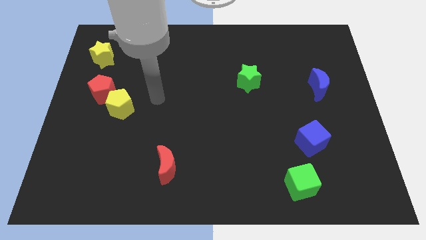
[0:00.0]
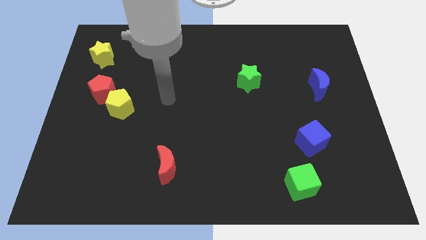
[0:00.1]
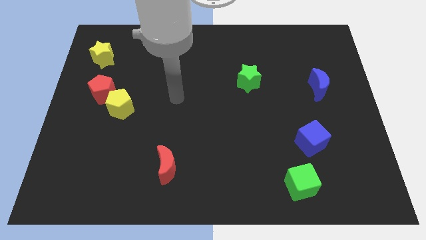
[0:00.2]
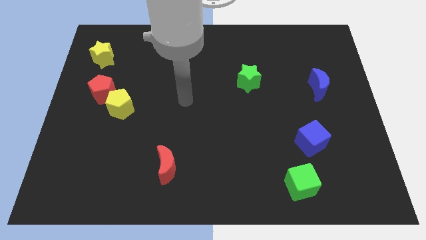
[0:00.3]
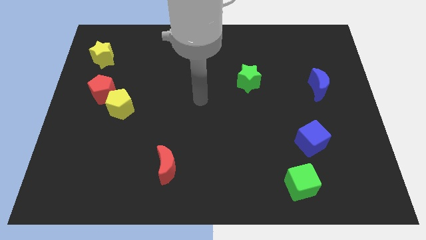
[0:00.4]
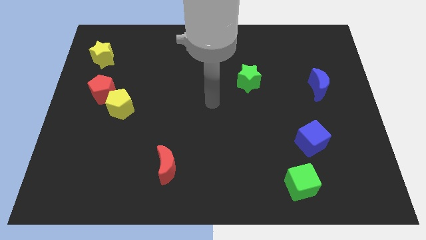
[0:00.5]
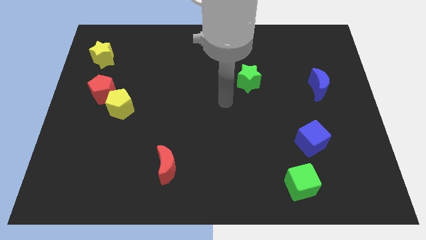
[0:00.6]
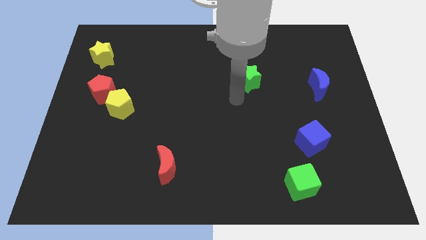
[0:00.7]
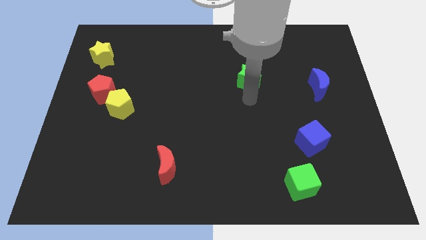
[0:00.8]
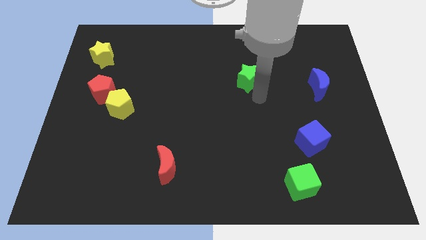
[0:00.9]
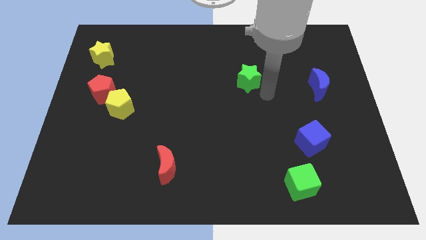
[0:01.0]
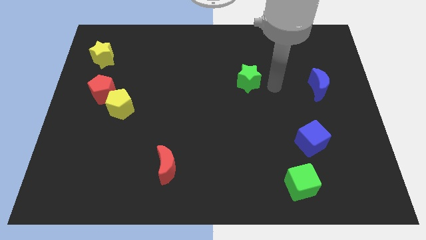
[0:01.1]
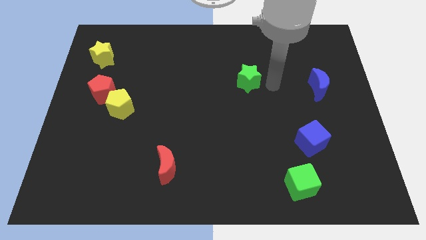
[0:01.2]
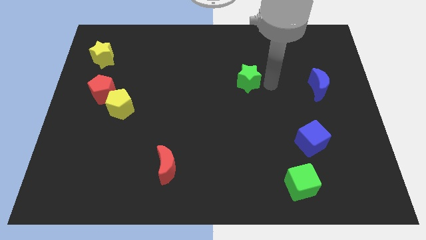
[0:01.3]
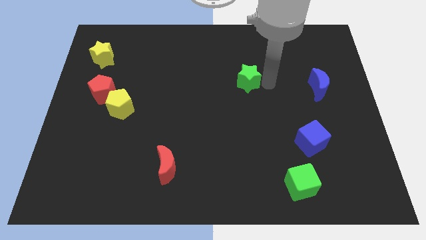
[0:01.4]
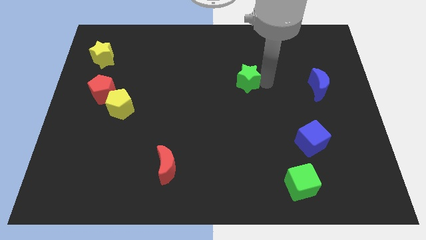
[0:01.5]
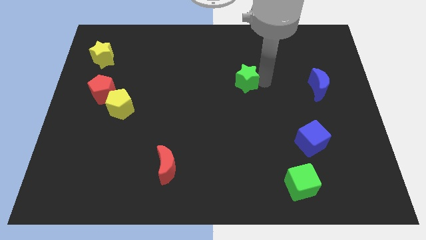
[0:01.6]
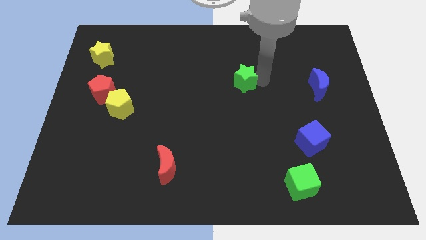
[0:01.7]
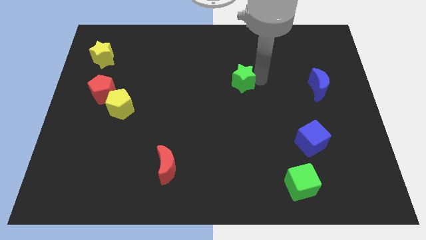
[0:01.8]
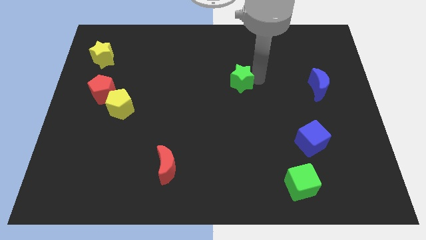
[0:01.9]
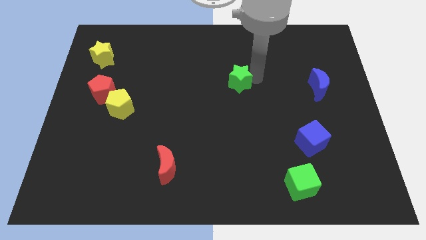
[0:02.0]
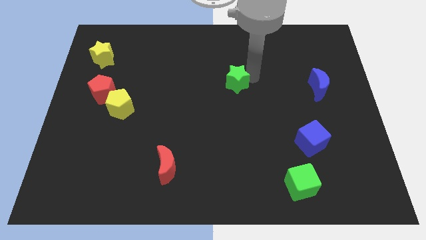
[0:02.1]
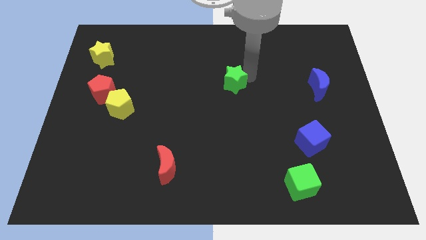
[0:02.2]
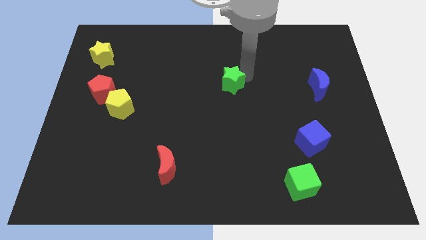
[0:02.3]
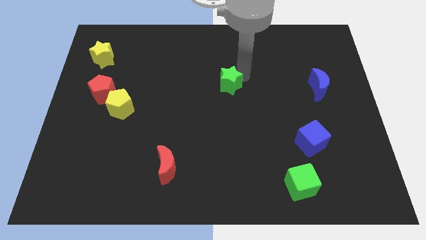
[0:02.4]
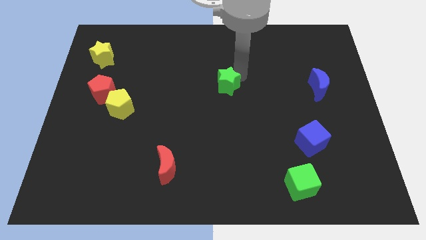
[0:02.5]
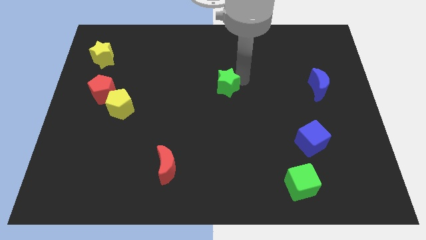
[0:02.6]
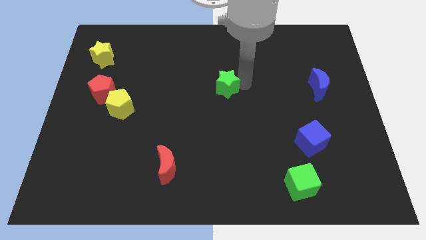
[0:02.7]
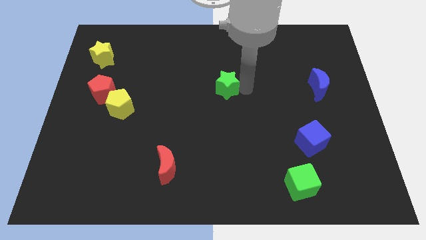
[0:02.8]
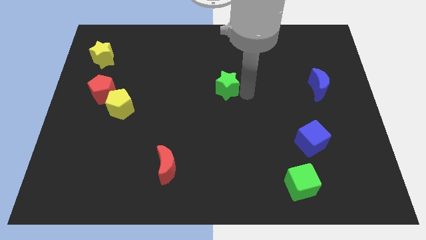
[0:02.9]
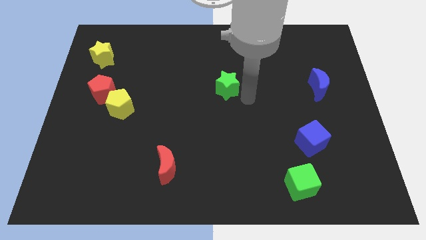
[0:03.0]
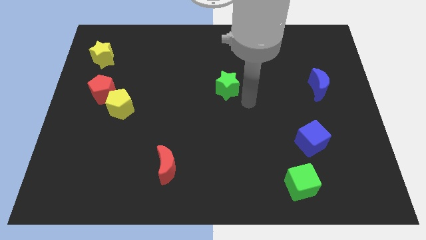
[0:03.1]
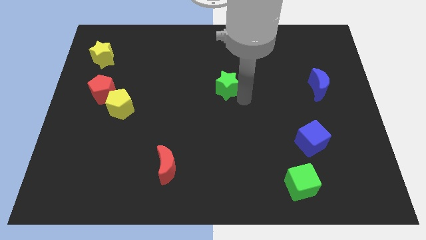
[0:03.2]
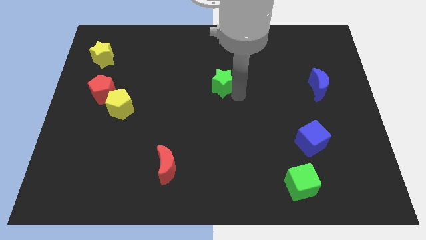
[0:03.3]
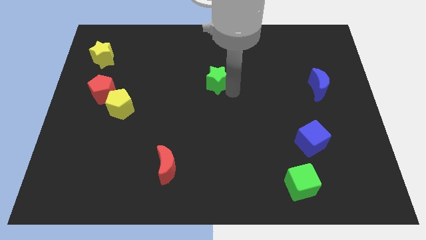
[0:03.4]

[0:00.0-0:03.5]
slightly move the green star left

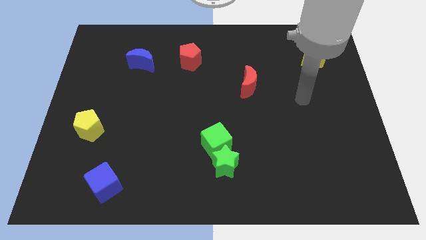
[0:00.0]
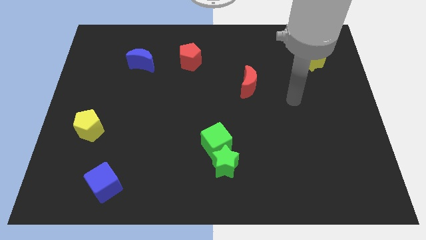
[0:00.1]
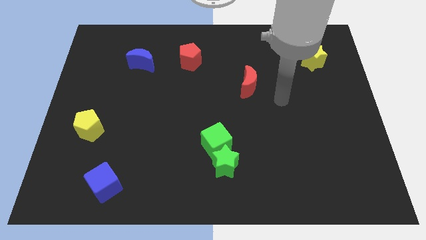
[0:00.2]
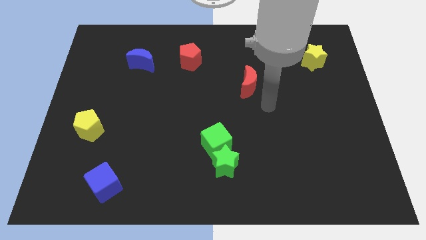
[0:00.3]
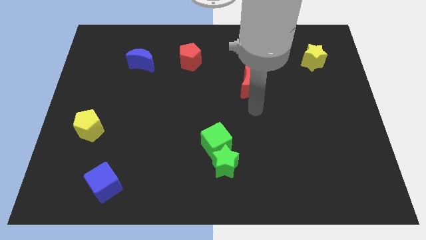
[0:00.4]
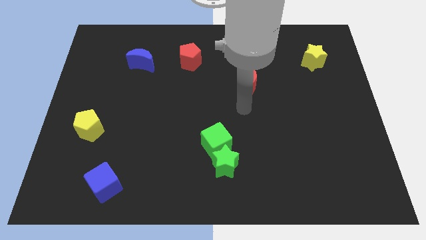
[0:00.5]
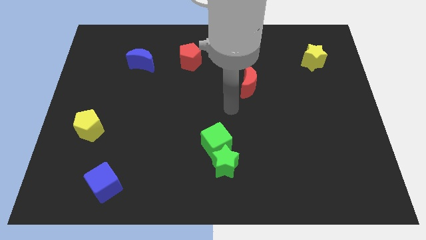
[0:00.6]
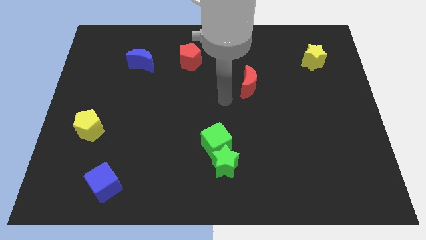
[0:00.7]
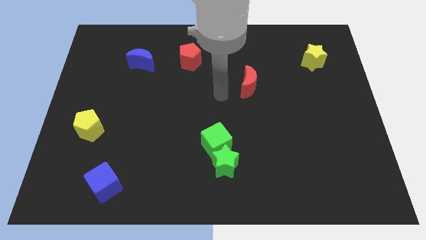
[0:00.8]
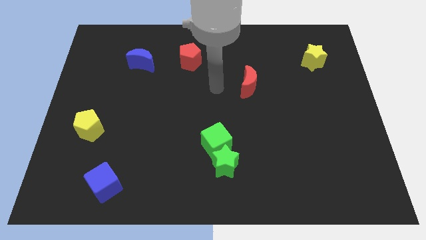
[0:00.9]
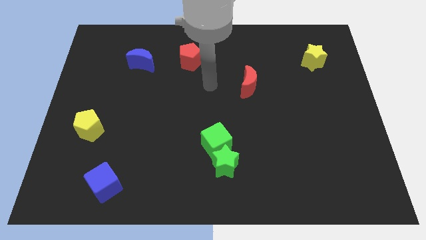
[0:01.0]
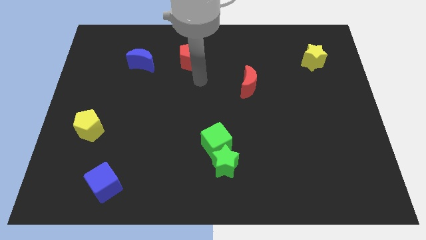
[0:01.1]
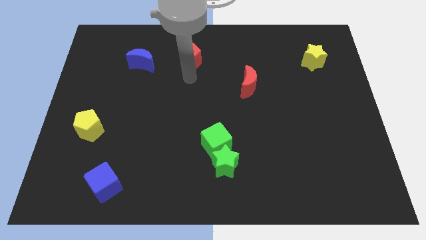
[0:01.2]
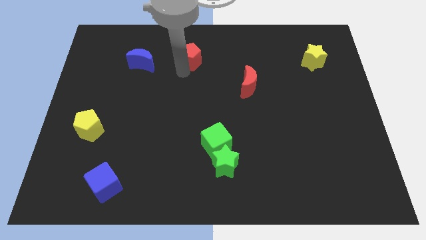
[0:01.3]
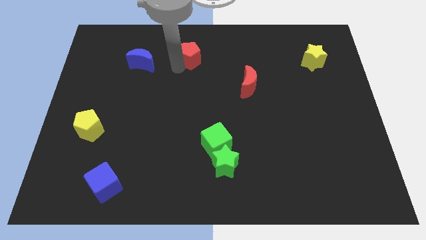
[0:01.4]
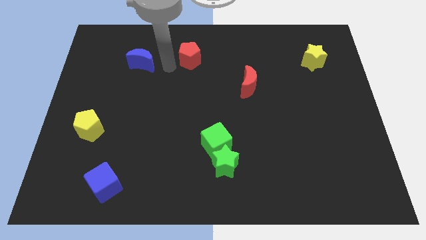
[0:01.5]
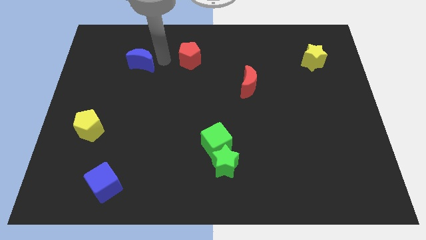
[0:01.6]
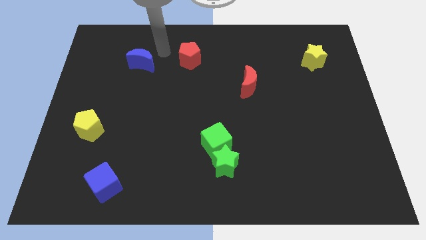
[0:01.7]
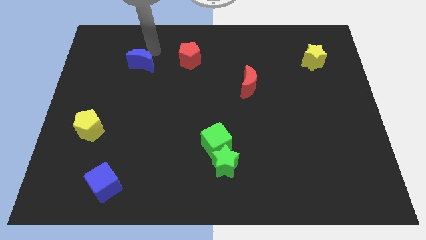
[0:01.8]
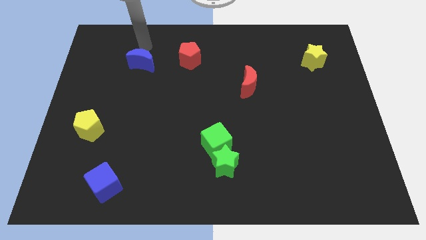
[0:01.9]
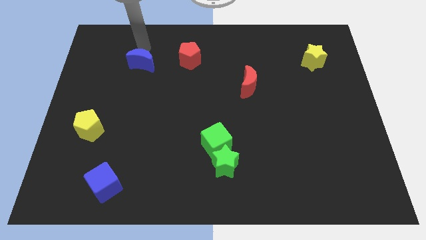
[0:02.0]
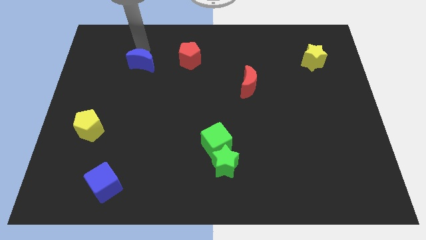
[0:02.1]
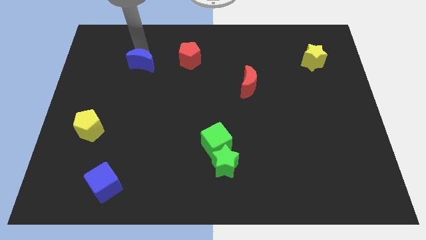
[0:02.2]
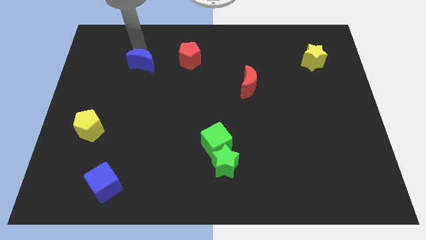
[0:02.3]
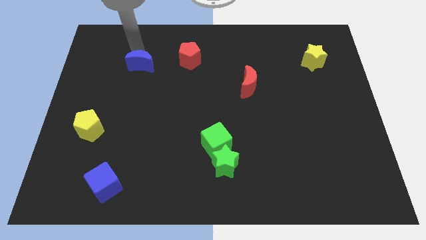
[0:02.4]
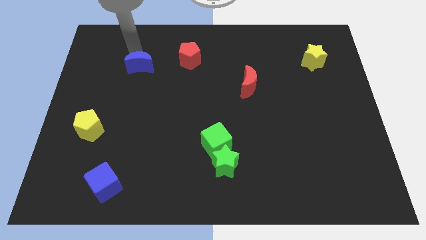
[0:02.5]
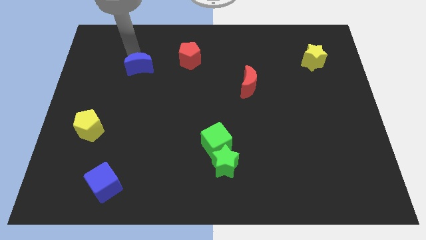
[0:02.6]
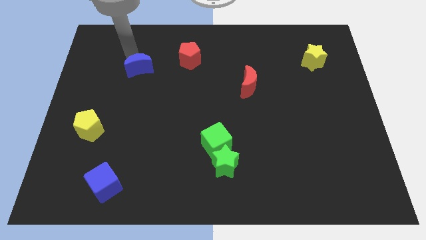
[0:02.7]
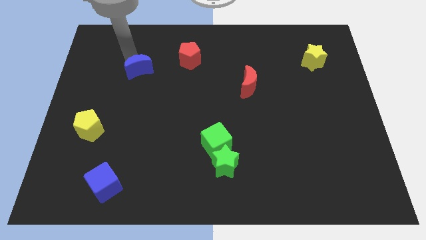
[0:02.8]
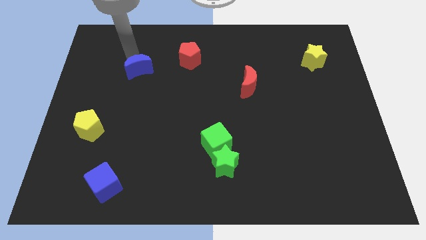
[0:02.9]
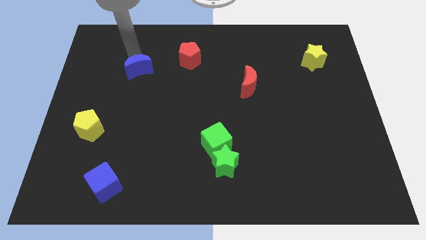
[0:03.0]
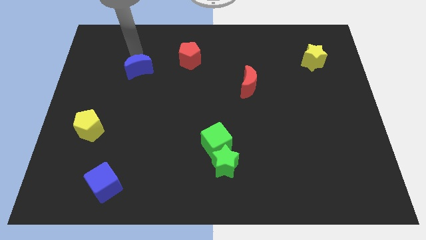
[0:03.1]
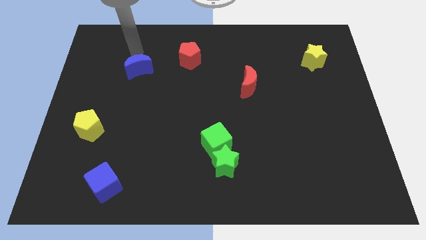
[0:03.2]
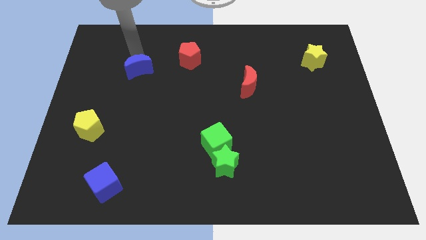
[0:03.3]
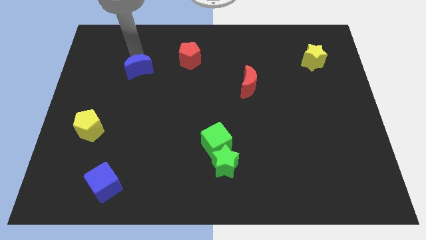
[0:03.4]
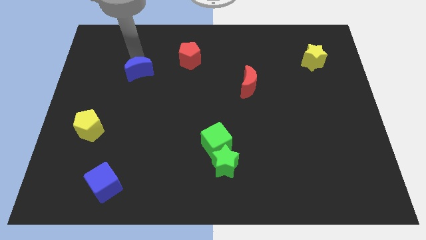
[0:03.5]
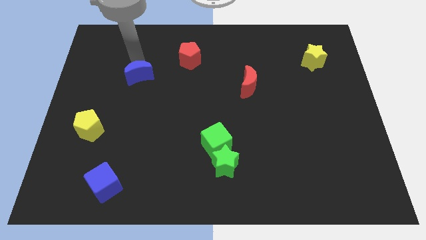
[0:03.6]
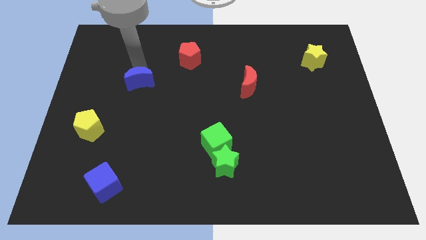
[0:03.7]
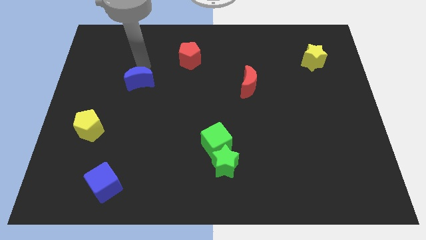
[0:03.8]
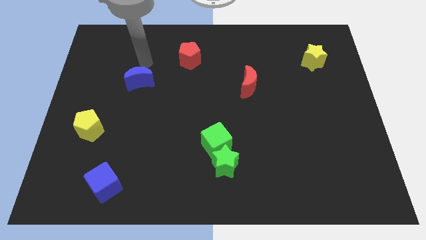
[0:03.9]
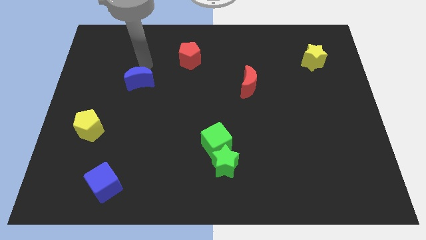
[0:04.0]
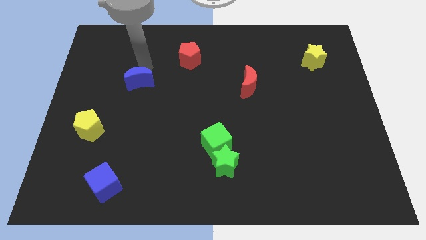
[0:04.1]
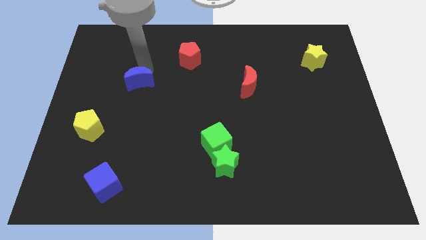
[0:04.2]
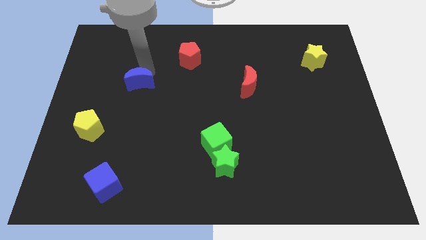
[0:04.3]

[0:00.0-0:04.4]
slightly slide the blue moon down

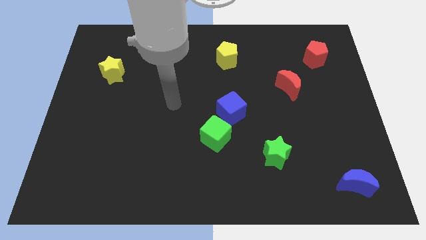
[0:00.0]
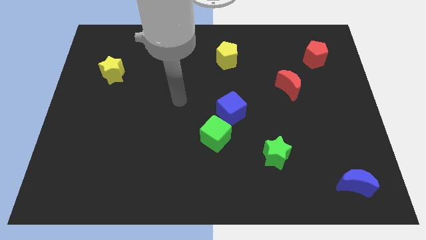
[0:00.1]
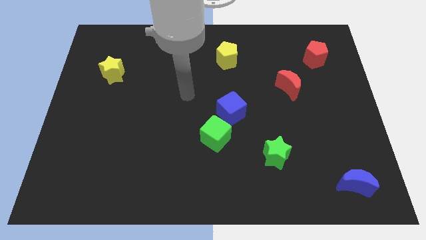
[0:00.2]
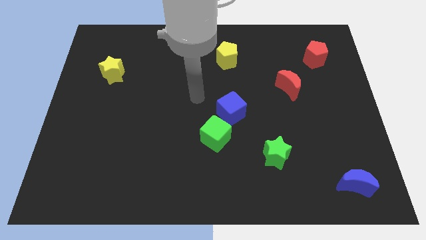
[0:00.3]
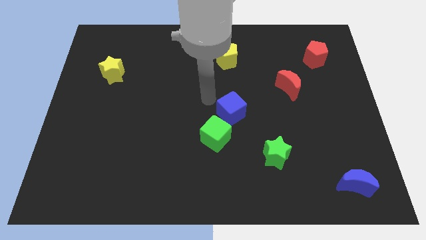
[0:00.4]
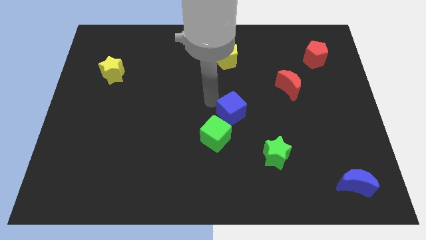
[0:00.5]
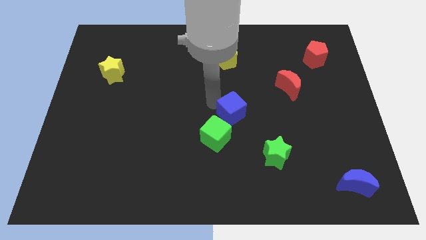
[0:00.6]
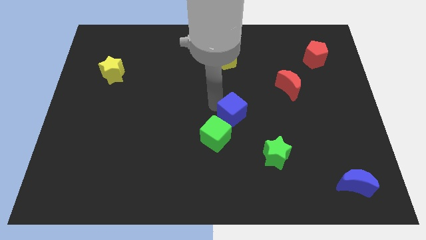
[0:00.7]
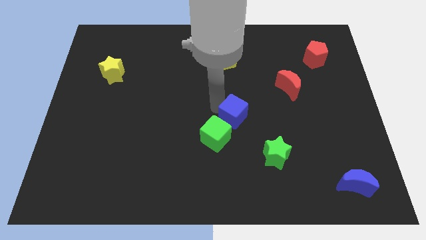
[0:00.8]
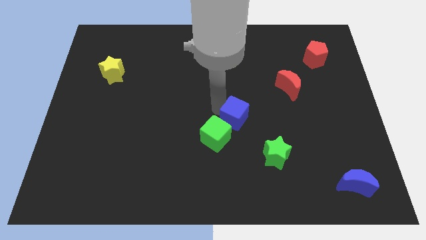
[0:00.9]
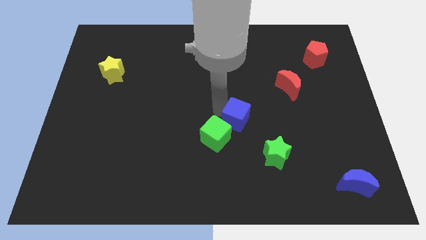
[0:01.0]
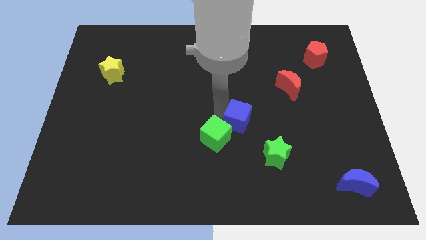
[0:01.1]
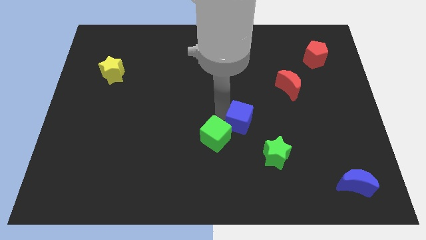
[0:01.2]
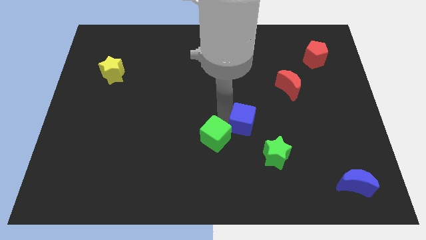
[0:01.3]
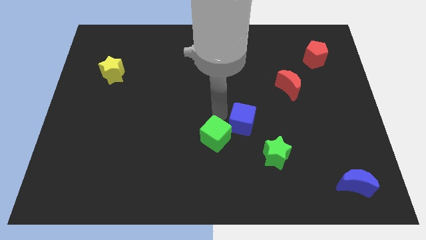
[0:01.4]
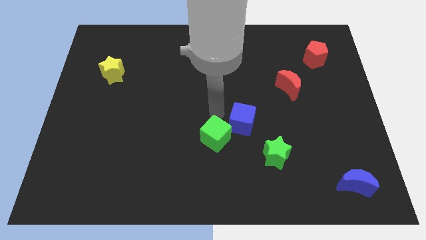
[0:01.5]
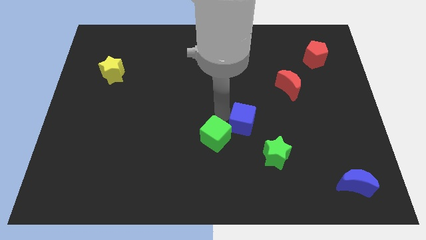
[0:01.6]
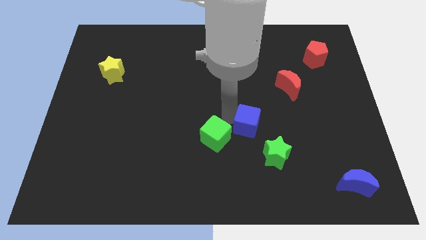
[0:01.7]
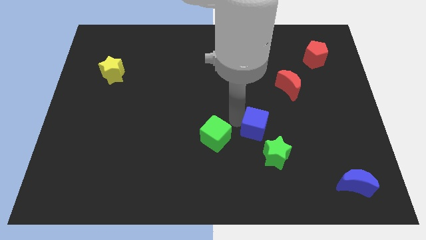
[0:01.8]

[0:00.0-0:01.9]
push the blue cube a little diagonally downwards and to the right
